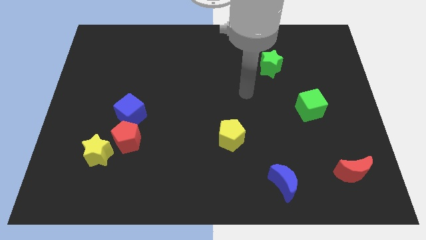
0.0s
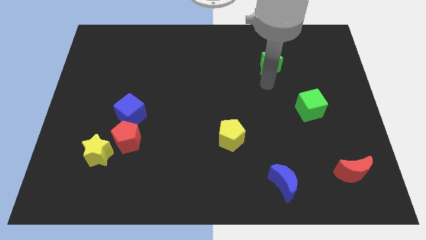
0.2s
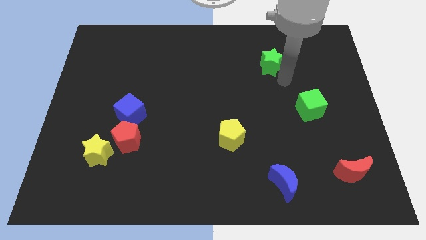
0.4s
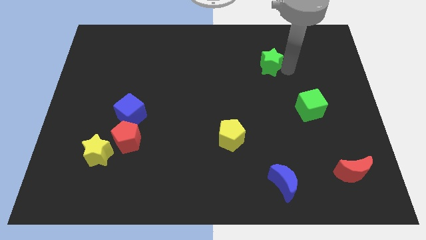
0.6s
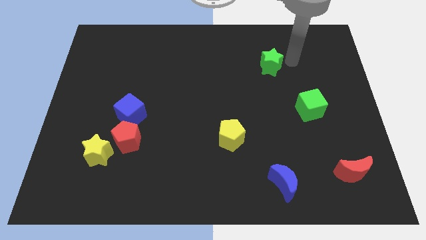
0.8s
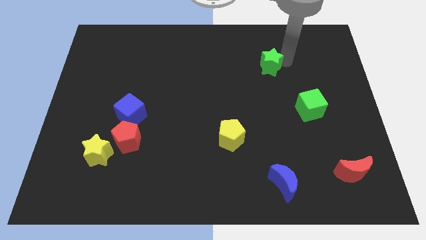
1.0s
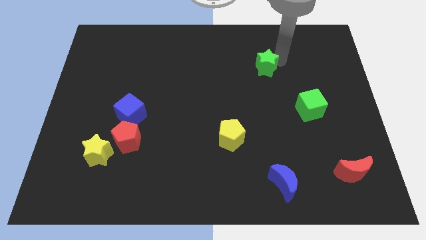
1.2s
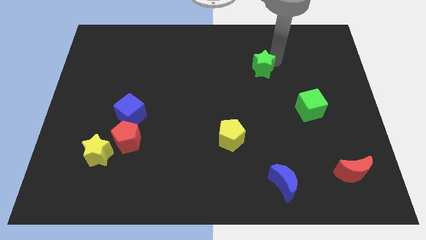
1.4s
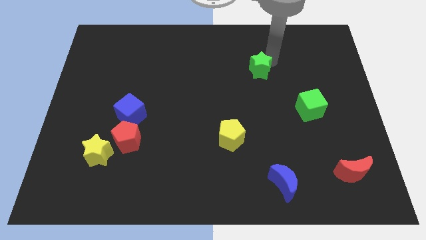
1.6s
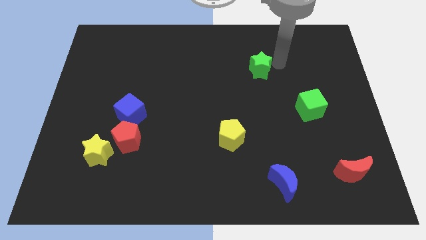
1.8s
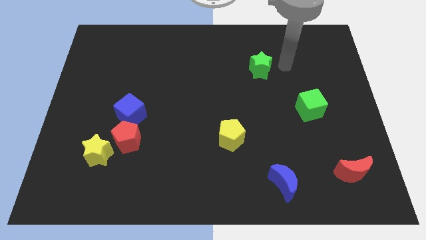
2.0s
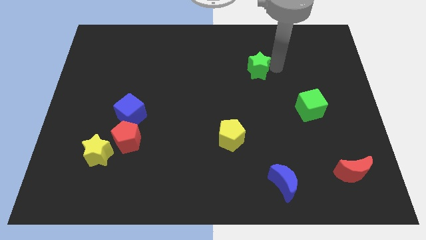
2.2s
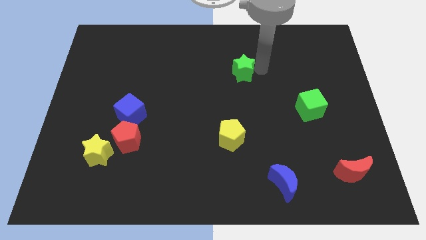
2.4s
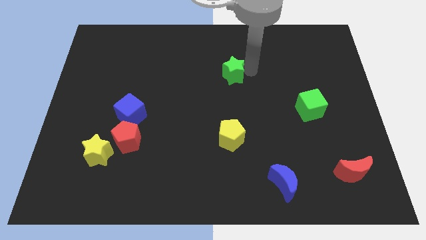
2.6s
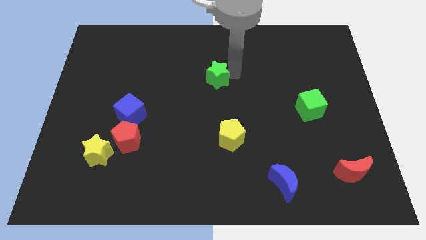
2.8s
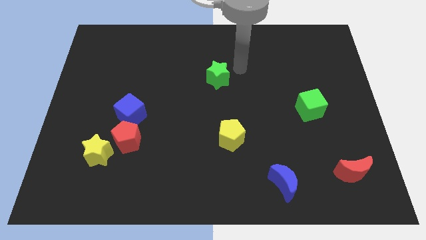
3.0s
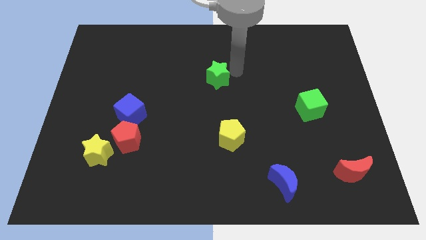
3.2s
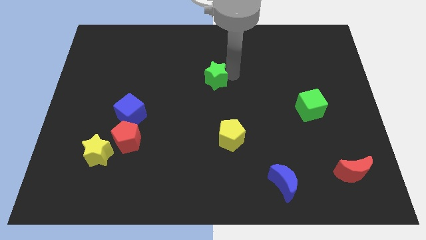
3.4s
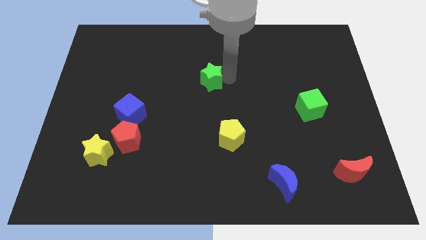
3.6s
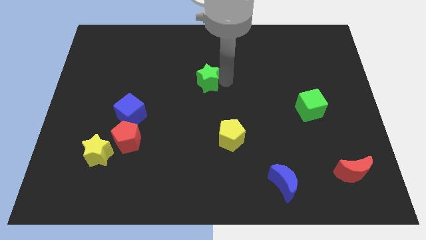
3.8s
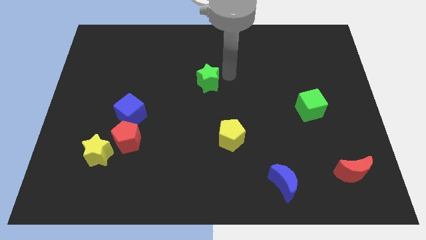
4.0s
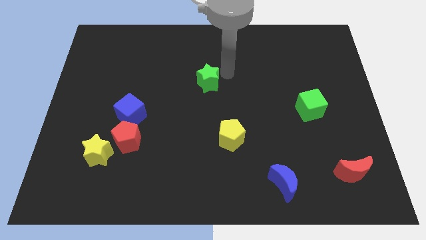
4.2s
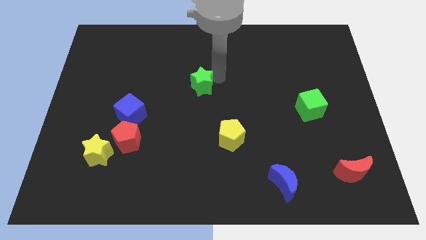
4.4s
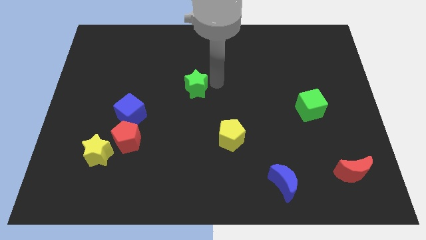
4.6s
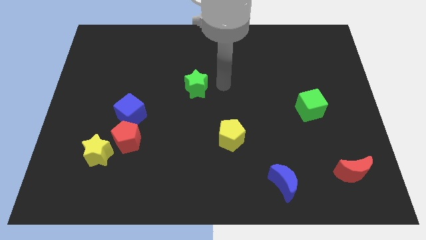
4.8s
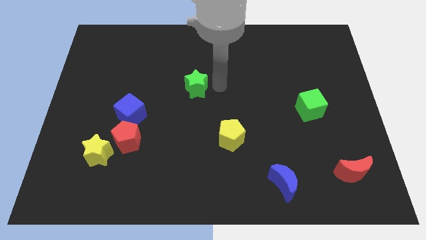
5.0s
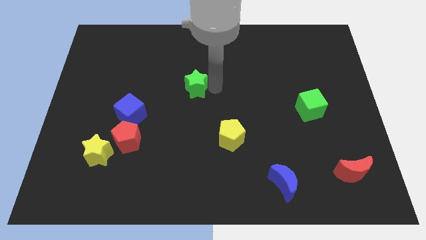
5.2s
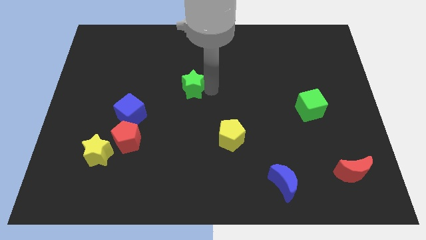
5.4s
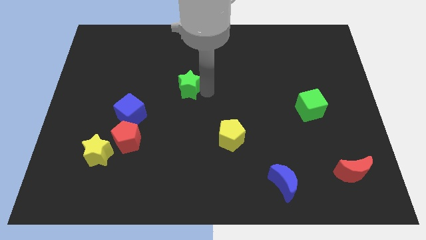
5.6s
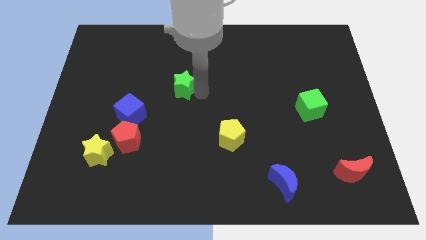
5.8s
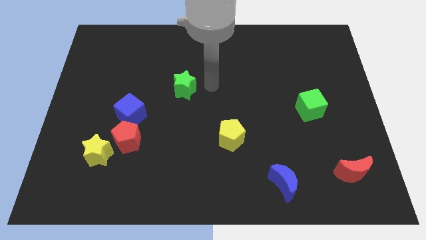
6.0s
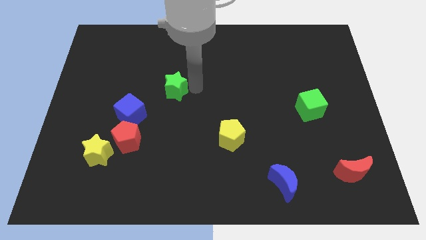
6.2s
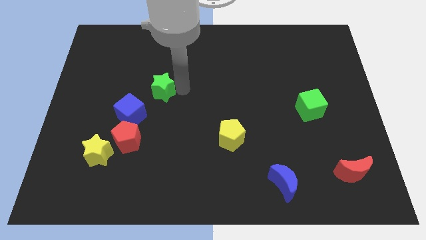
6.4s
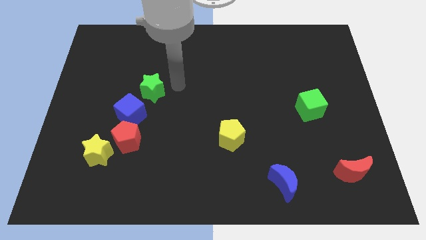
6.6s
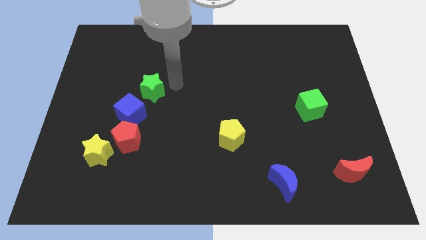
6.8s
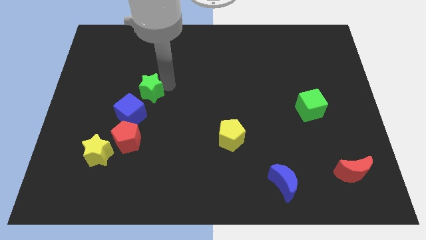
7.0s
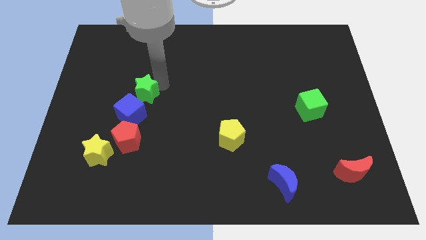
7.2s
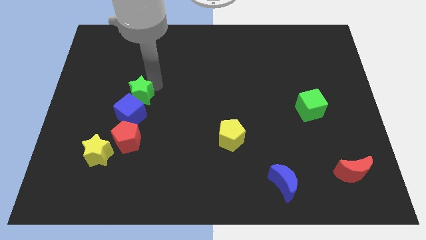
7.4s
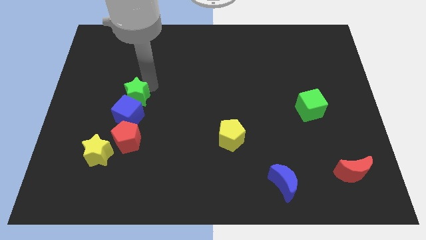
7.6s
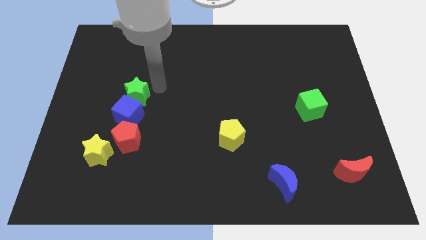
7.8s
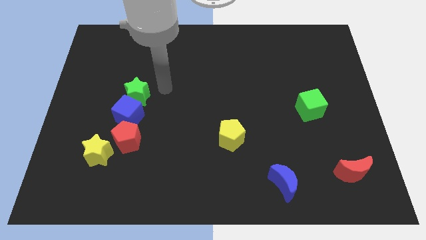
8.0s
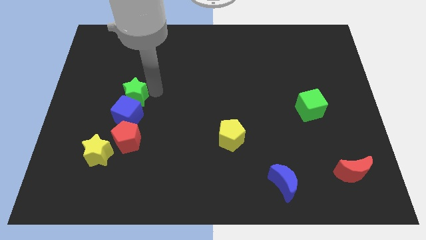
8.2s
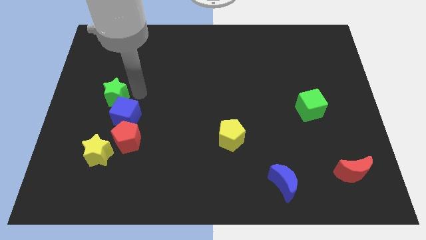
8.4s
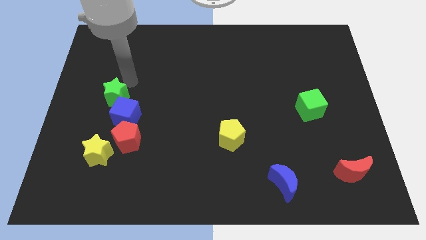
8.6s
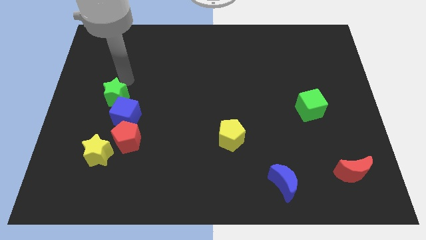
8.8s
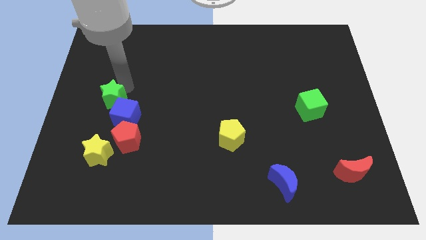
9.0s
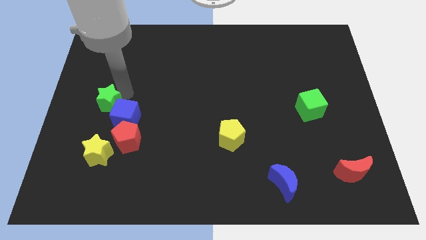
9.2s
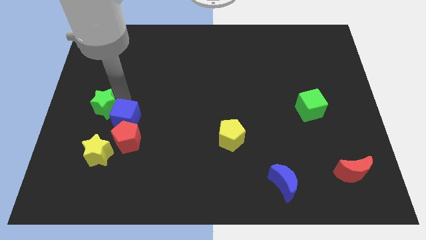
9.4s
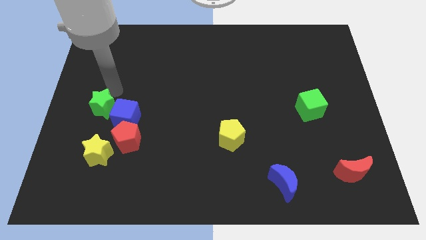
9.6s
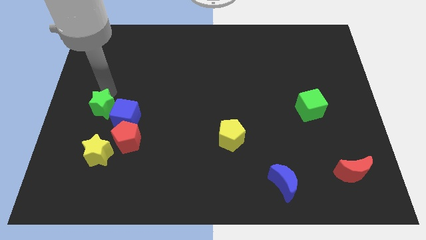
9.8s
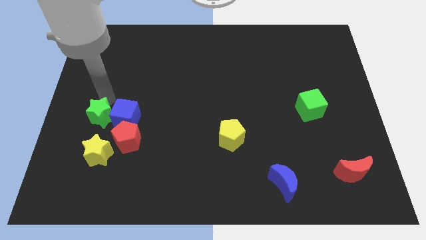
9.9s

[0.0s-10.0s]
push the green star diagonally down and to the left of the blue cube

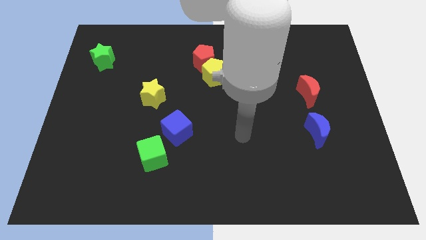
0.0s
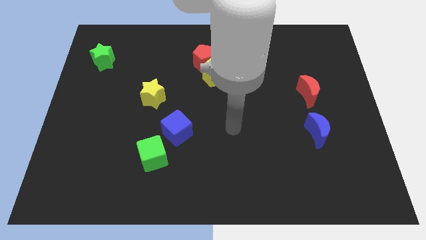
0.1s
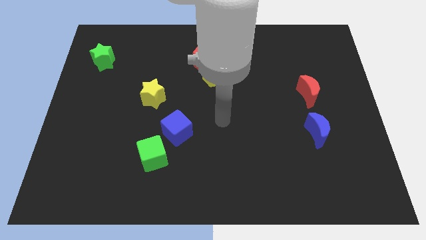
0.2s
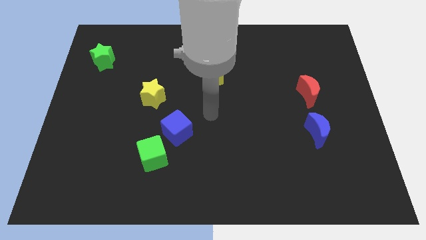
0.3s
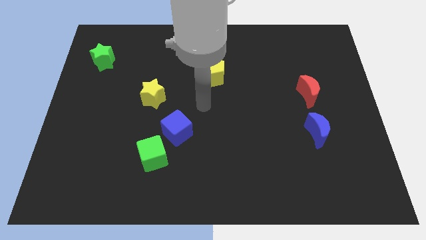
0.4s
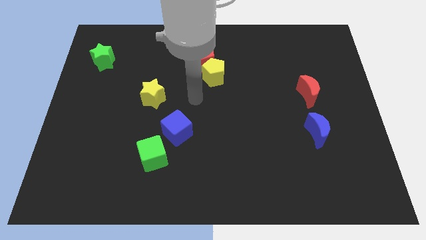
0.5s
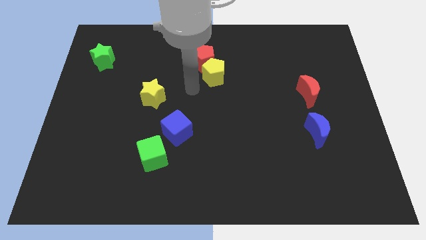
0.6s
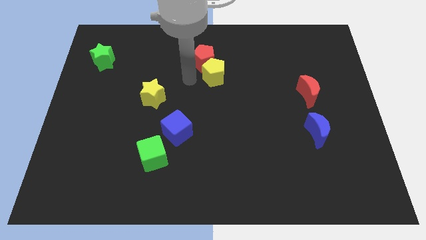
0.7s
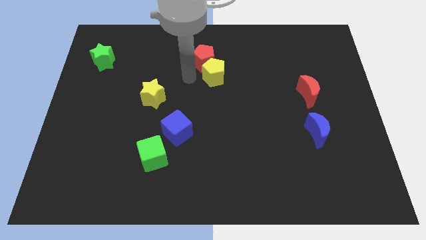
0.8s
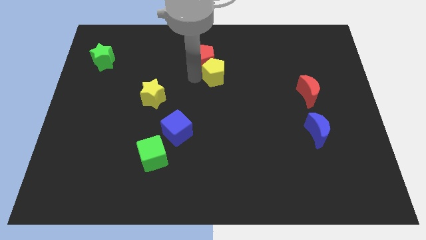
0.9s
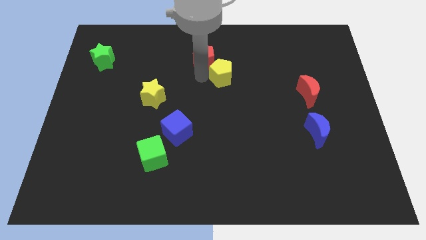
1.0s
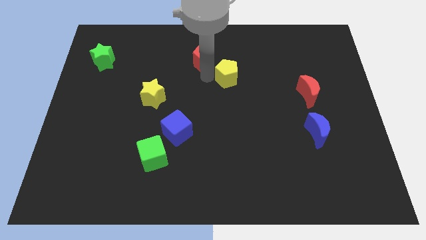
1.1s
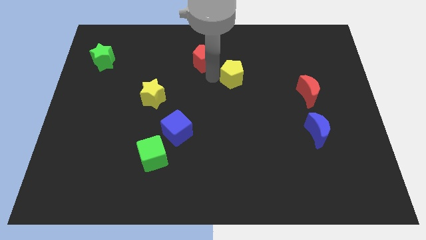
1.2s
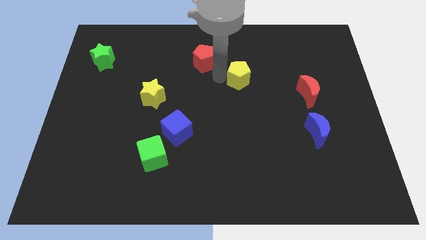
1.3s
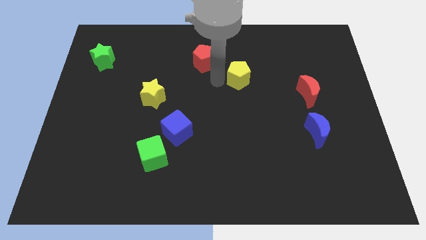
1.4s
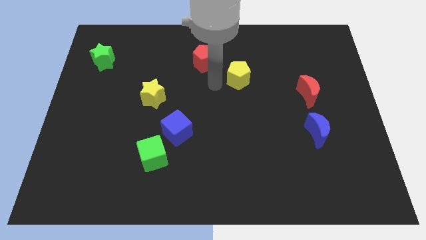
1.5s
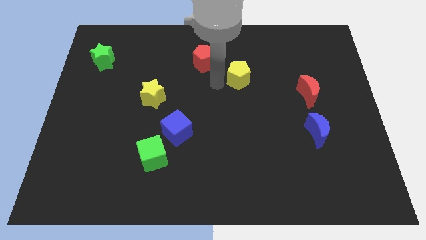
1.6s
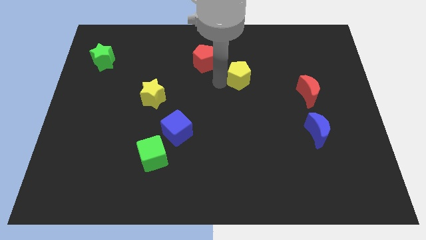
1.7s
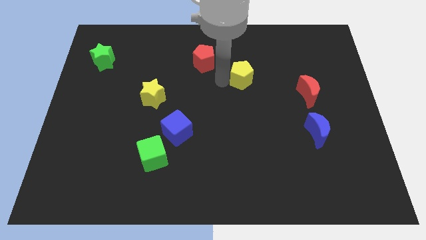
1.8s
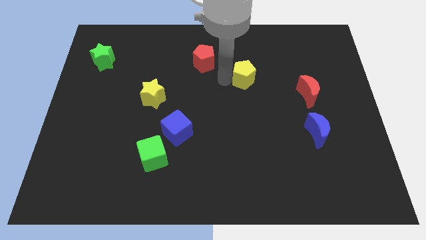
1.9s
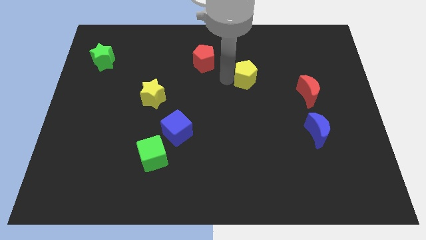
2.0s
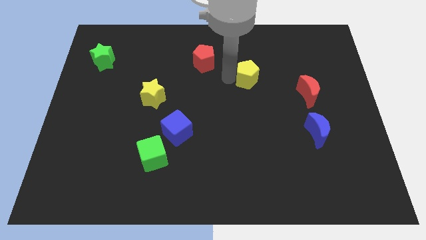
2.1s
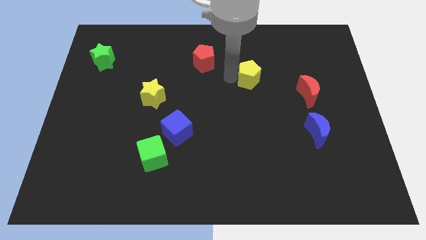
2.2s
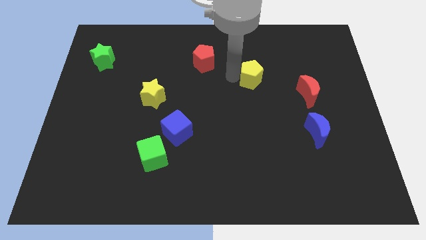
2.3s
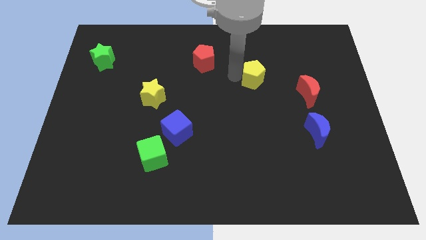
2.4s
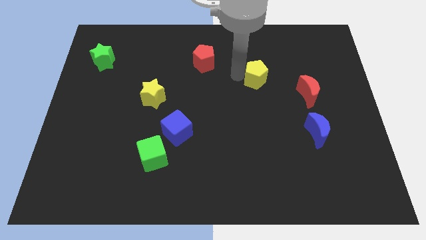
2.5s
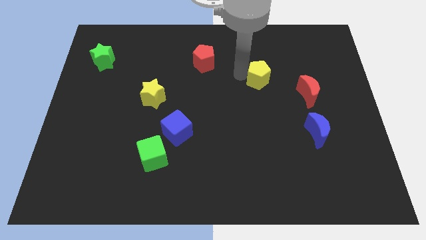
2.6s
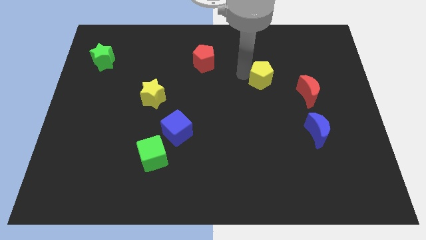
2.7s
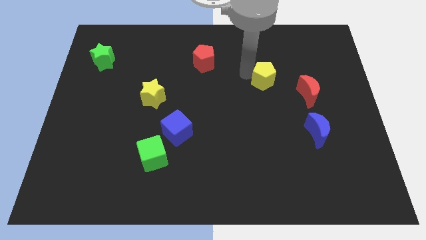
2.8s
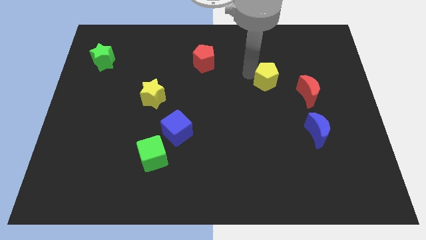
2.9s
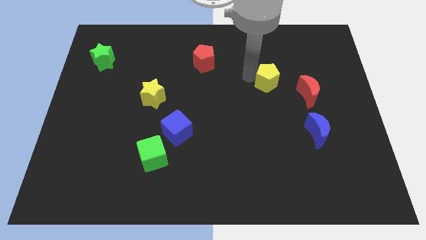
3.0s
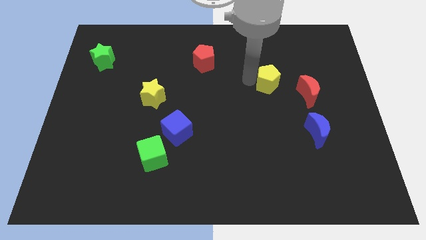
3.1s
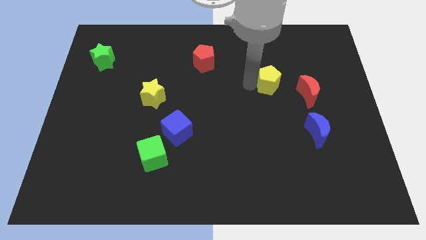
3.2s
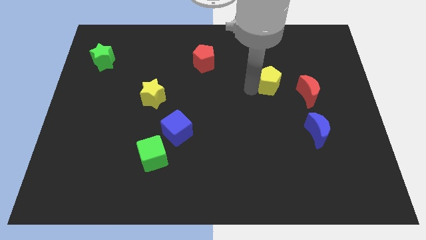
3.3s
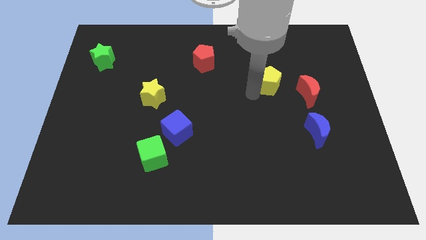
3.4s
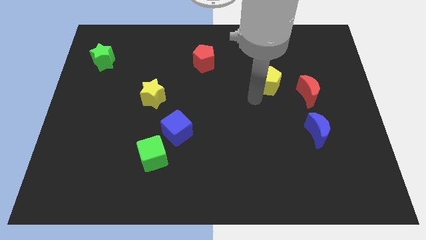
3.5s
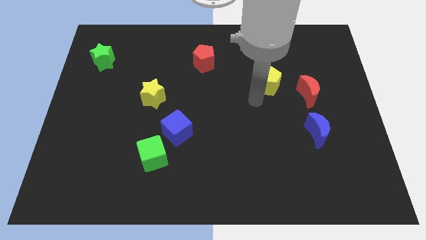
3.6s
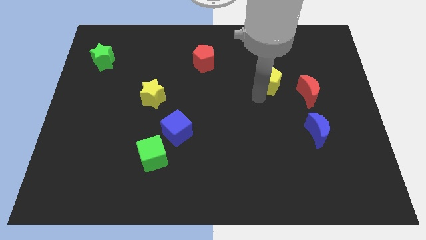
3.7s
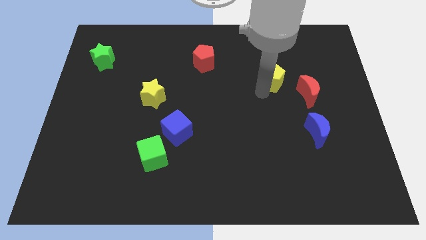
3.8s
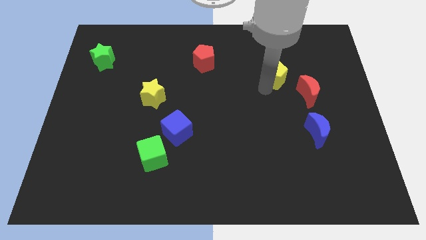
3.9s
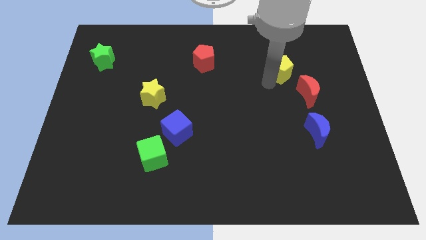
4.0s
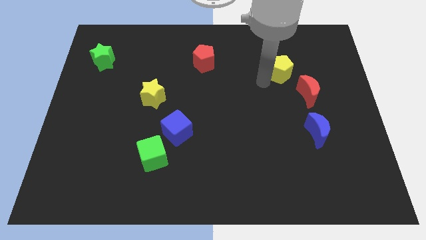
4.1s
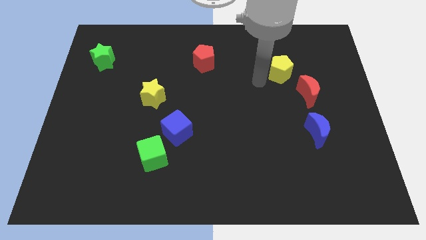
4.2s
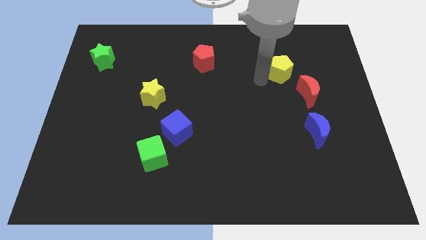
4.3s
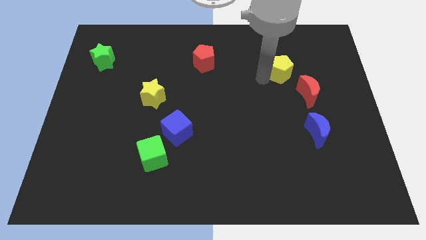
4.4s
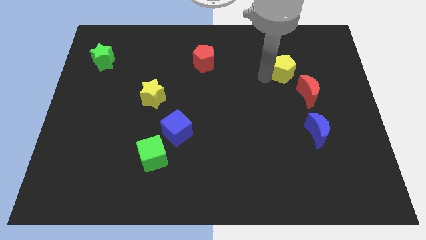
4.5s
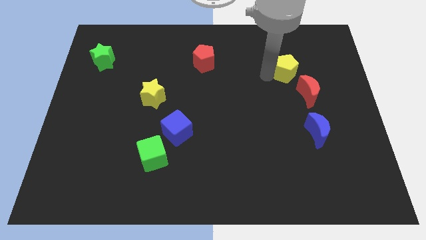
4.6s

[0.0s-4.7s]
move the yellow pentagon to the top of the red moon
